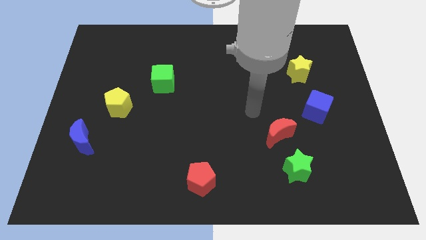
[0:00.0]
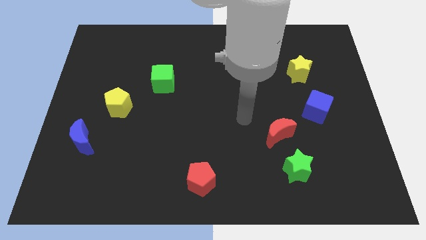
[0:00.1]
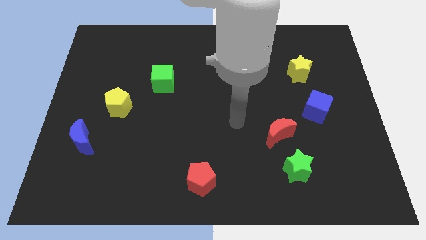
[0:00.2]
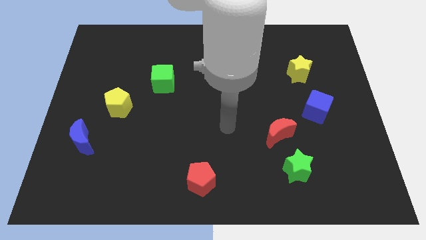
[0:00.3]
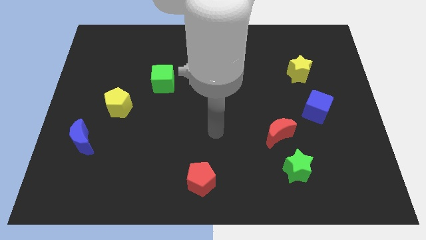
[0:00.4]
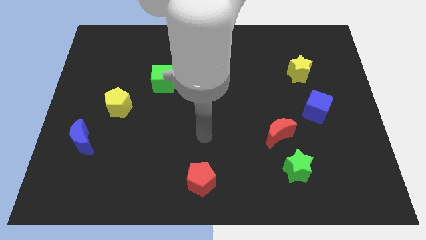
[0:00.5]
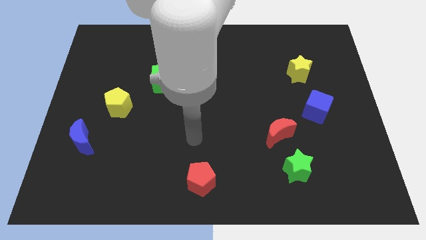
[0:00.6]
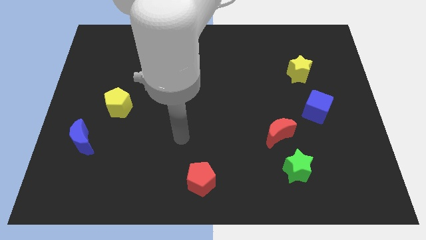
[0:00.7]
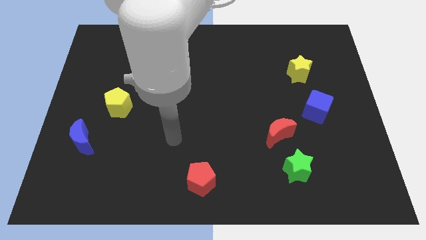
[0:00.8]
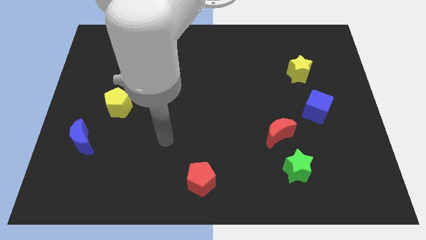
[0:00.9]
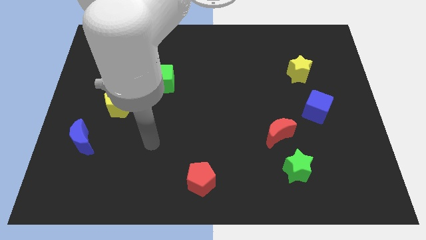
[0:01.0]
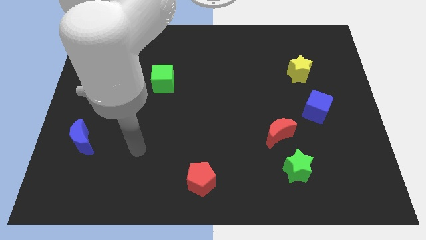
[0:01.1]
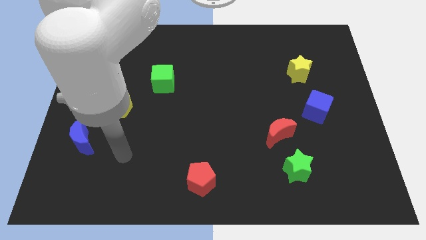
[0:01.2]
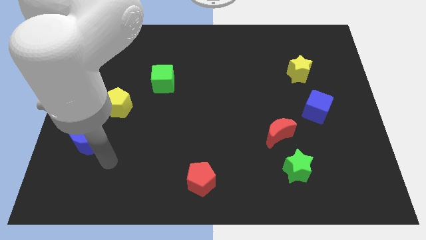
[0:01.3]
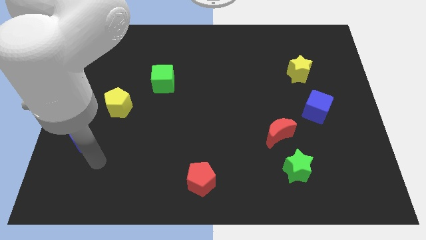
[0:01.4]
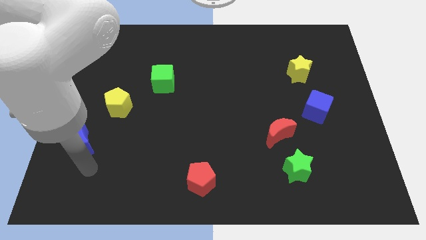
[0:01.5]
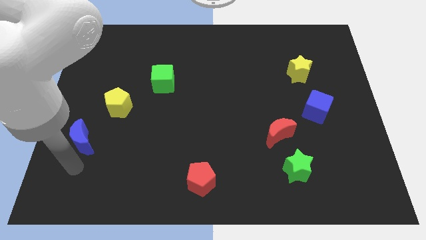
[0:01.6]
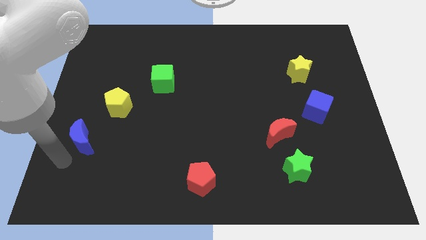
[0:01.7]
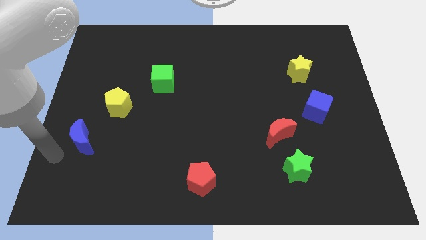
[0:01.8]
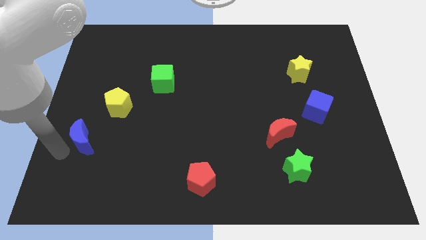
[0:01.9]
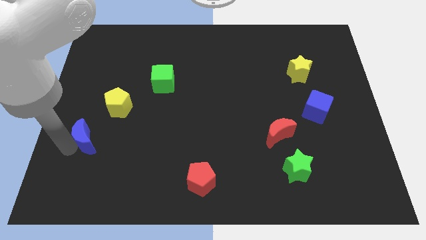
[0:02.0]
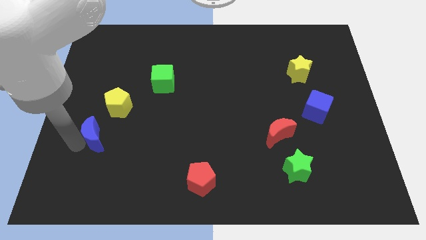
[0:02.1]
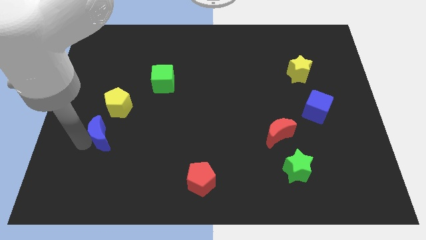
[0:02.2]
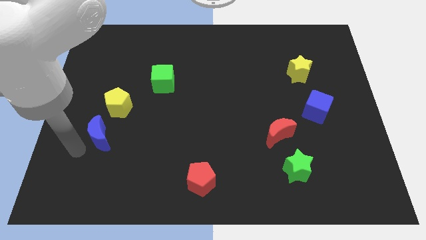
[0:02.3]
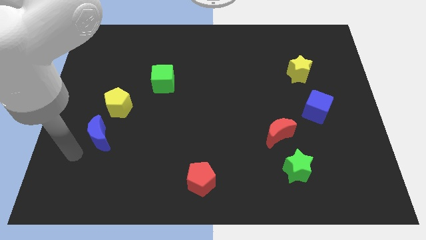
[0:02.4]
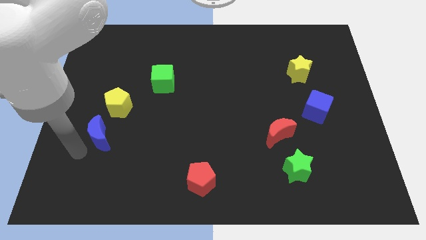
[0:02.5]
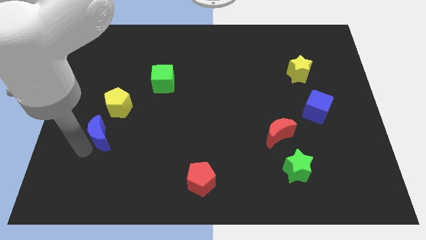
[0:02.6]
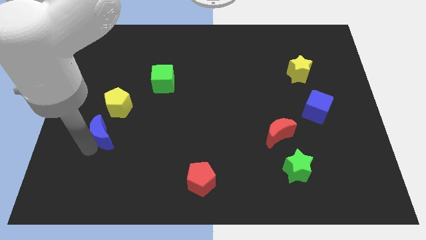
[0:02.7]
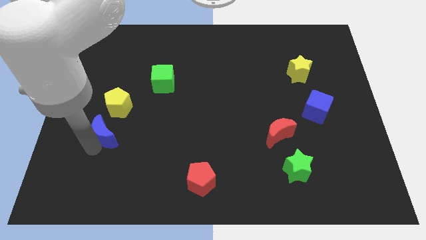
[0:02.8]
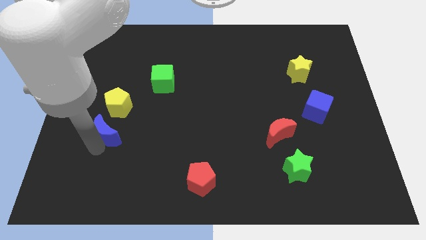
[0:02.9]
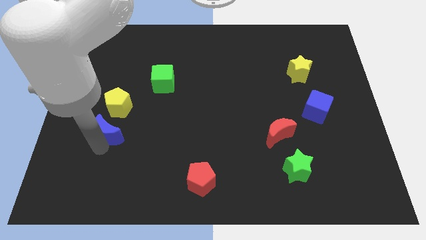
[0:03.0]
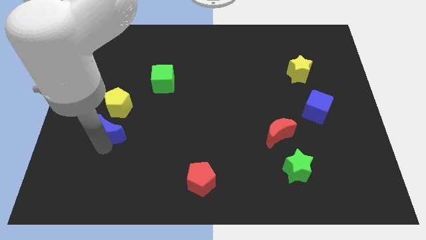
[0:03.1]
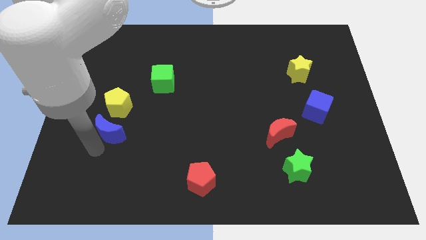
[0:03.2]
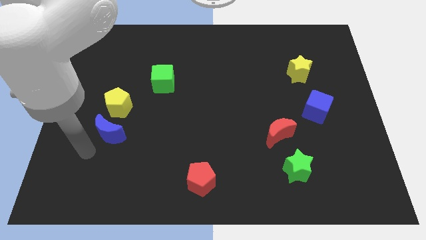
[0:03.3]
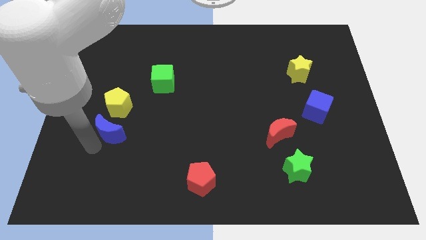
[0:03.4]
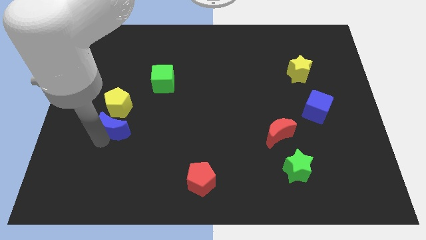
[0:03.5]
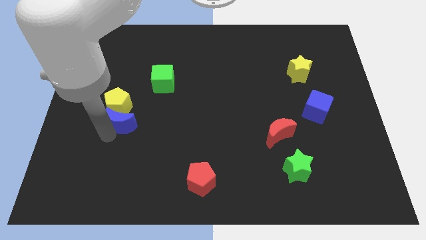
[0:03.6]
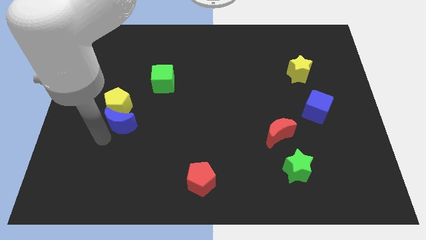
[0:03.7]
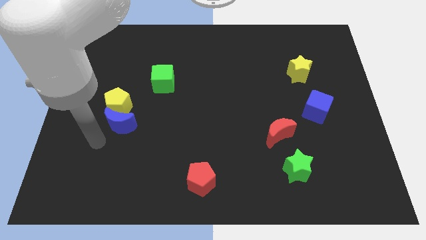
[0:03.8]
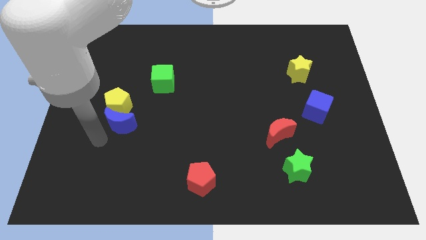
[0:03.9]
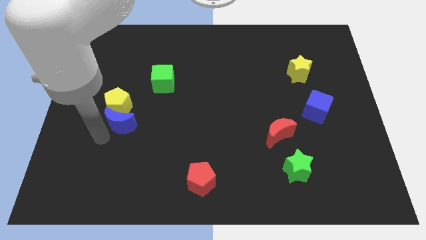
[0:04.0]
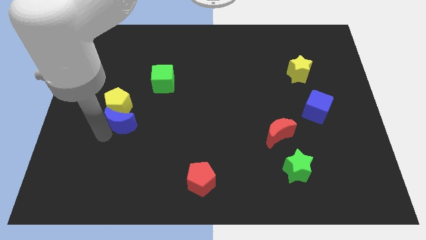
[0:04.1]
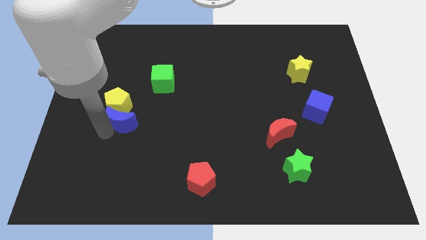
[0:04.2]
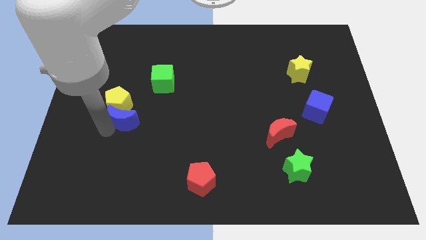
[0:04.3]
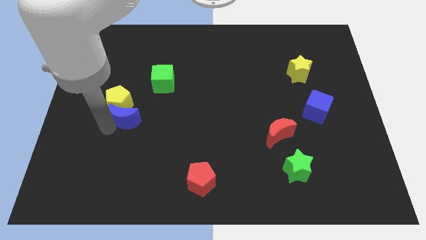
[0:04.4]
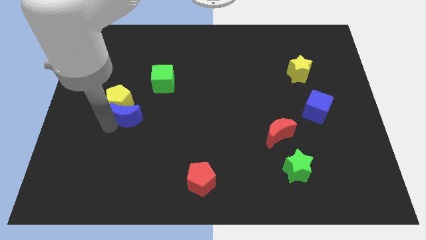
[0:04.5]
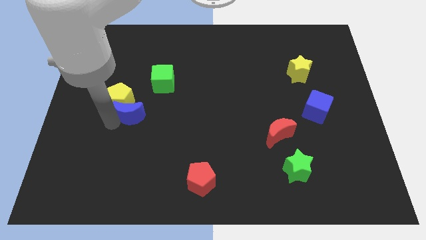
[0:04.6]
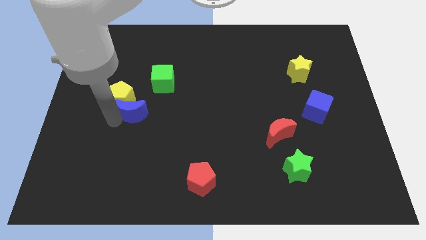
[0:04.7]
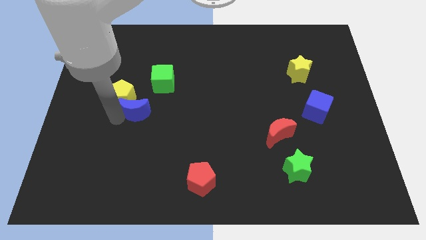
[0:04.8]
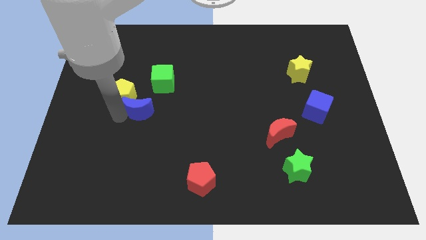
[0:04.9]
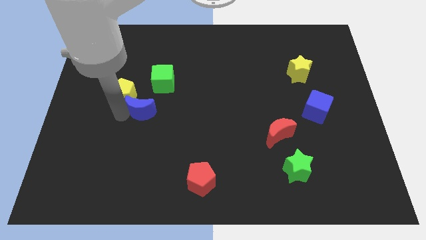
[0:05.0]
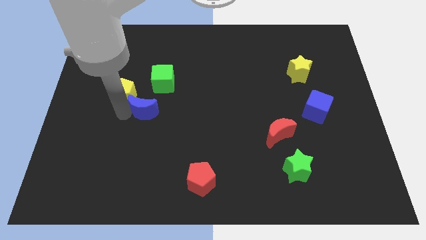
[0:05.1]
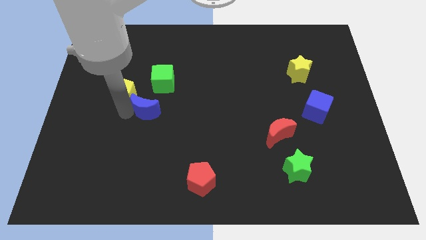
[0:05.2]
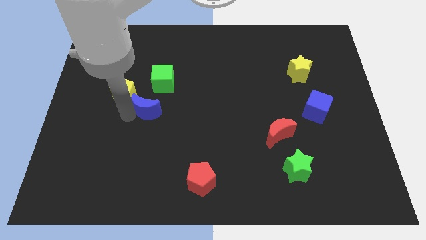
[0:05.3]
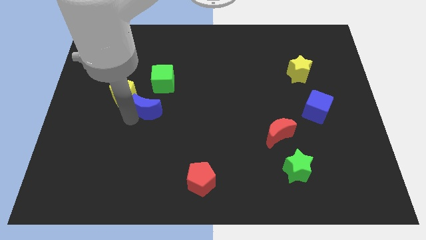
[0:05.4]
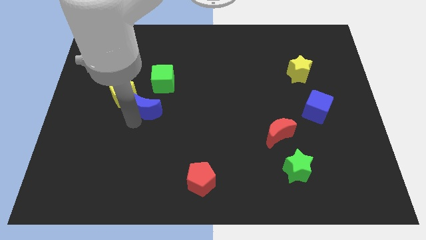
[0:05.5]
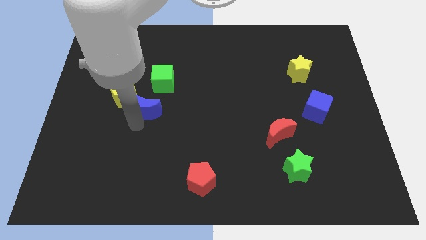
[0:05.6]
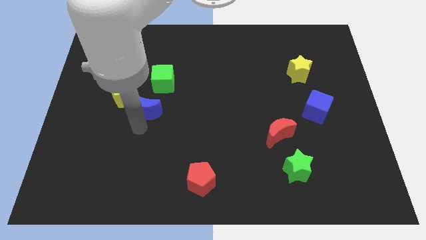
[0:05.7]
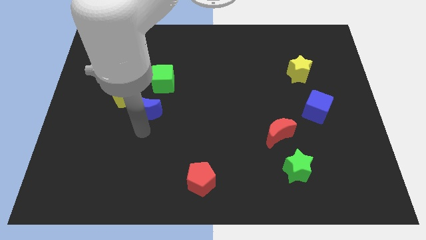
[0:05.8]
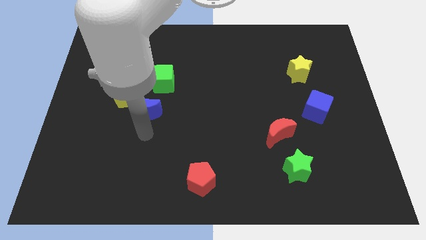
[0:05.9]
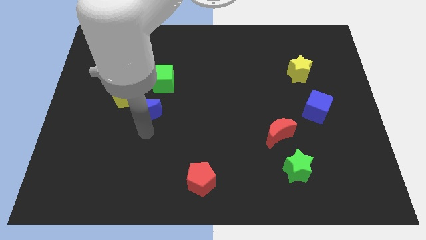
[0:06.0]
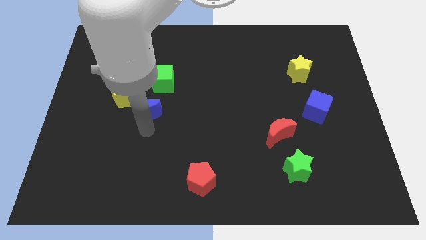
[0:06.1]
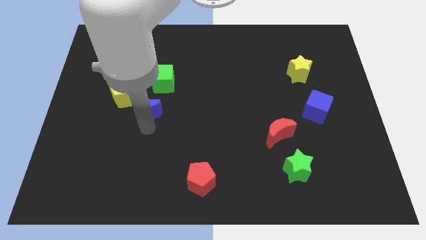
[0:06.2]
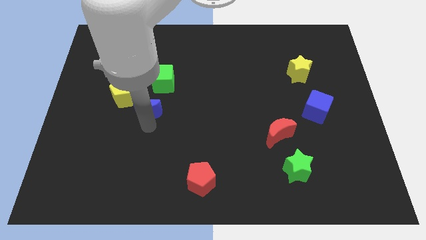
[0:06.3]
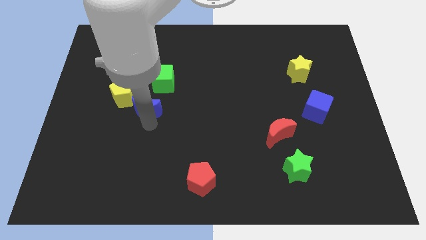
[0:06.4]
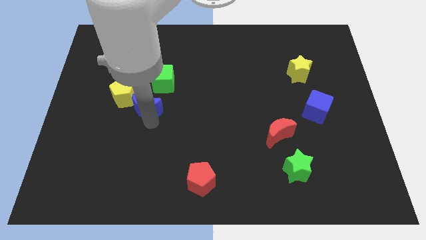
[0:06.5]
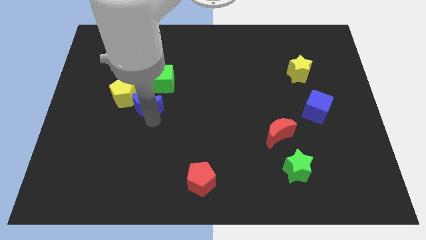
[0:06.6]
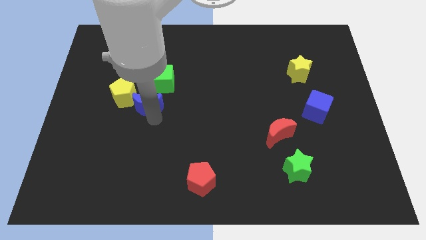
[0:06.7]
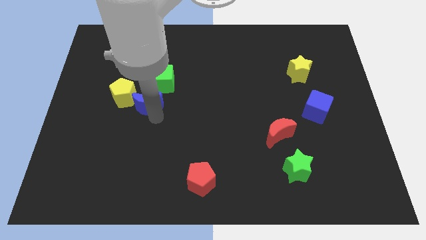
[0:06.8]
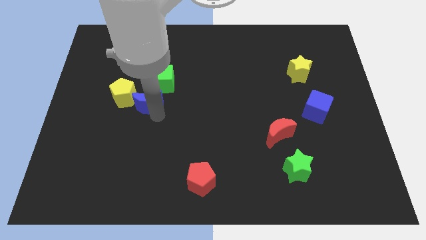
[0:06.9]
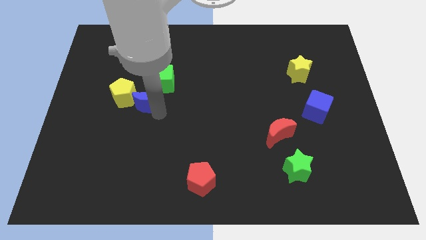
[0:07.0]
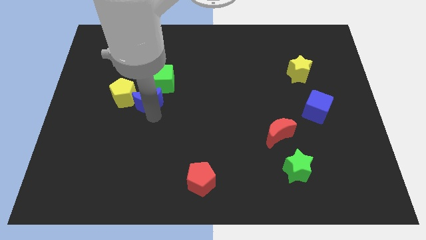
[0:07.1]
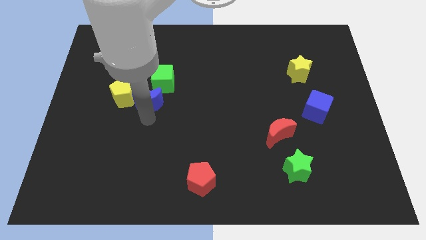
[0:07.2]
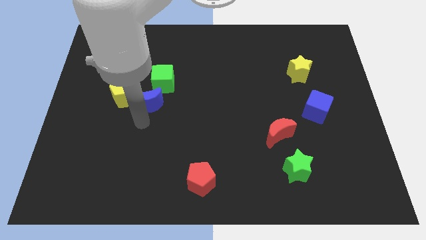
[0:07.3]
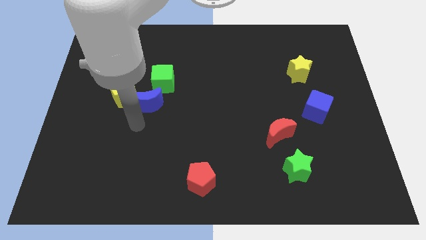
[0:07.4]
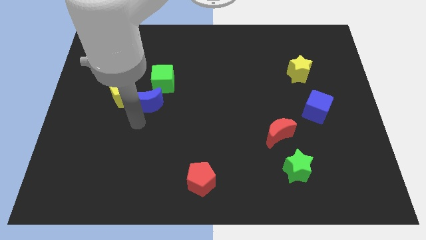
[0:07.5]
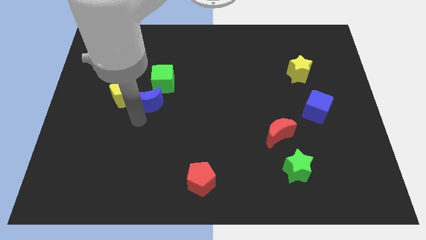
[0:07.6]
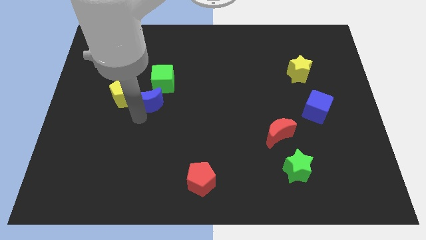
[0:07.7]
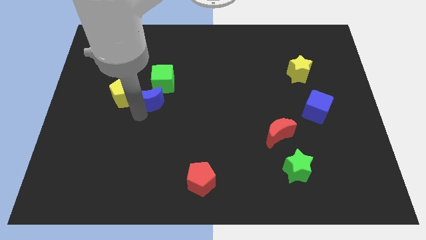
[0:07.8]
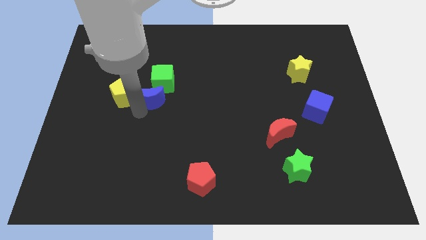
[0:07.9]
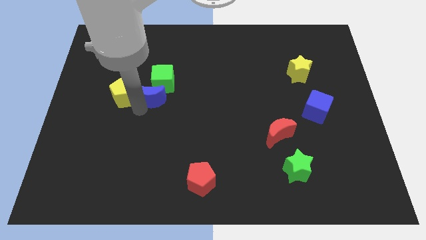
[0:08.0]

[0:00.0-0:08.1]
put the blue moon next to the green cube
